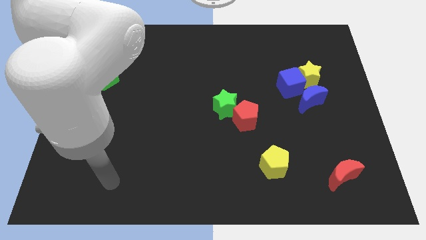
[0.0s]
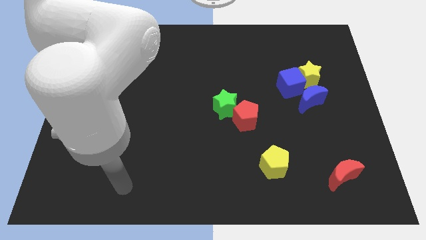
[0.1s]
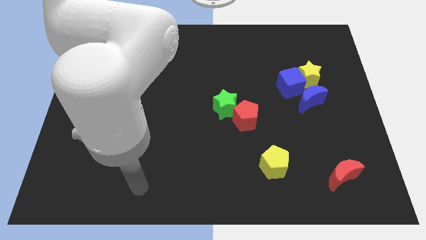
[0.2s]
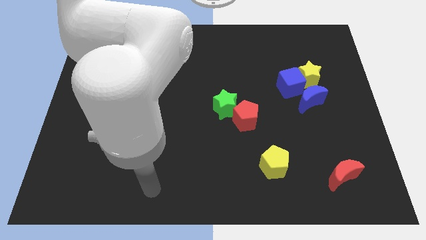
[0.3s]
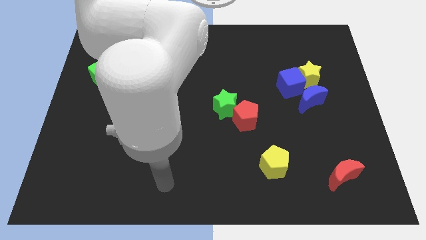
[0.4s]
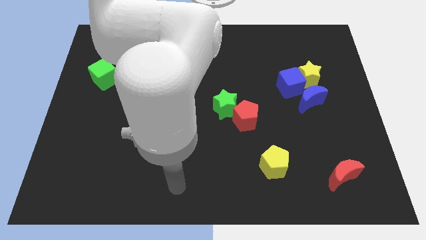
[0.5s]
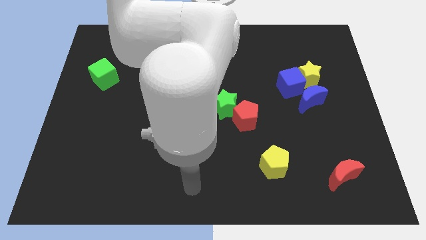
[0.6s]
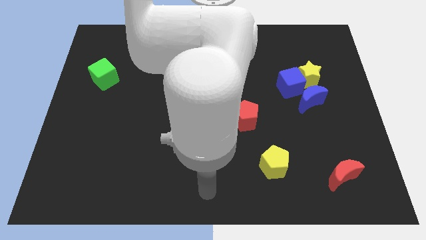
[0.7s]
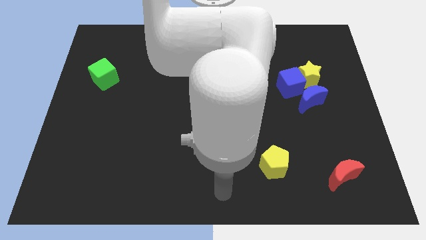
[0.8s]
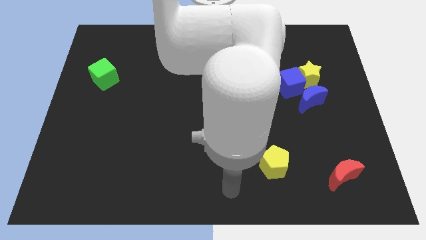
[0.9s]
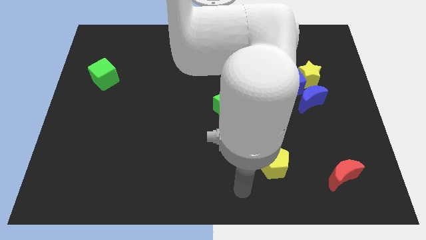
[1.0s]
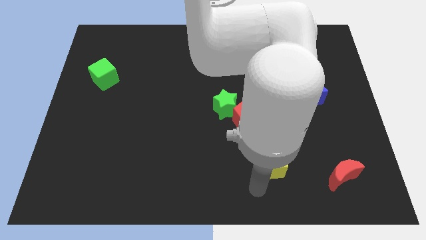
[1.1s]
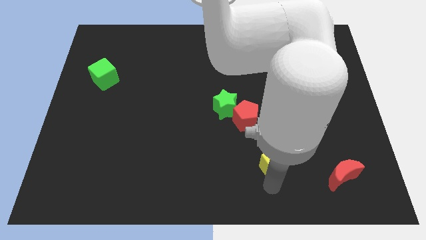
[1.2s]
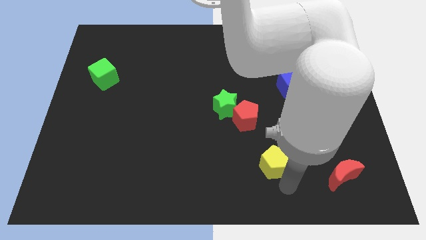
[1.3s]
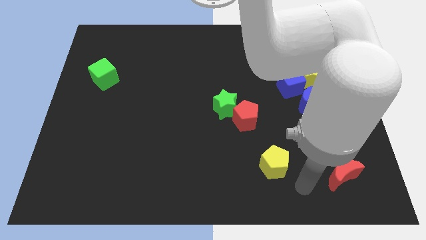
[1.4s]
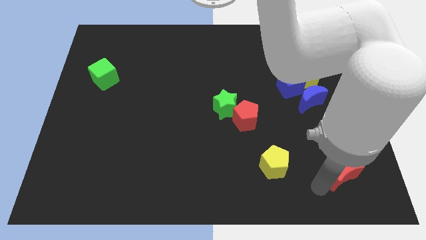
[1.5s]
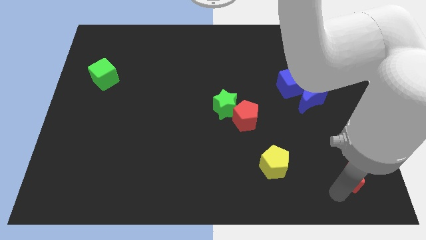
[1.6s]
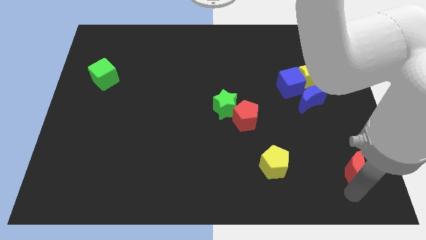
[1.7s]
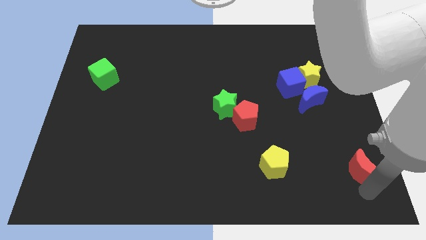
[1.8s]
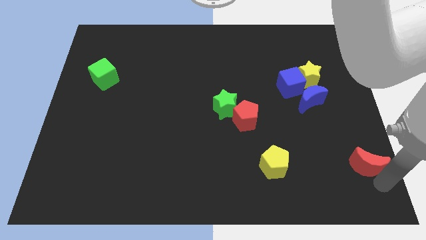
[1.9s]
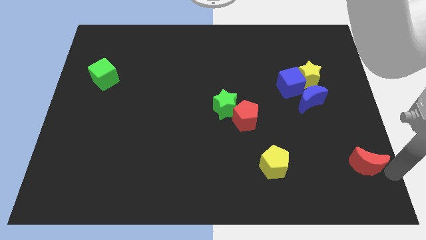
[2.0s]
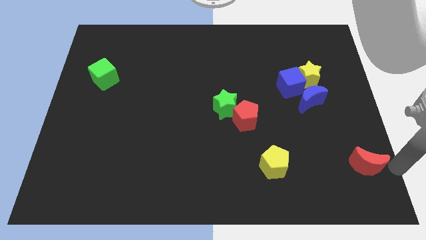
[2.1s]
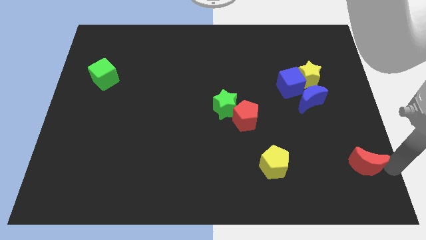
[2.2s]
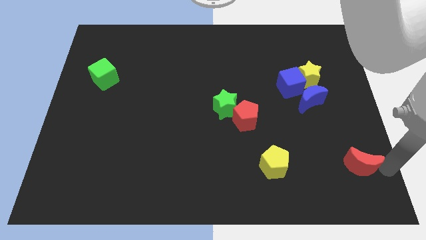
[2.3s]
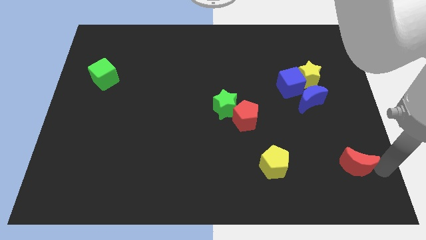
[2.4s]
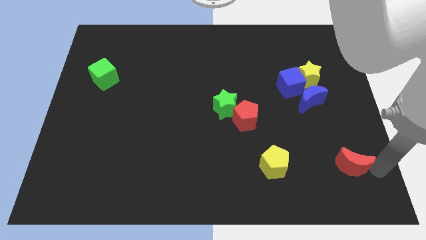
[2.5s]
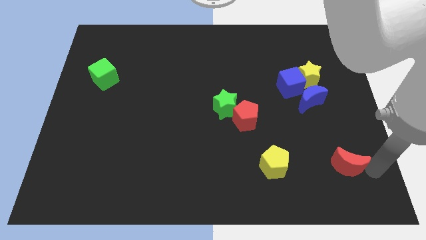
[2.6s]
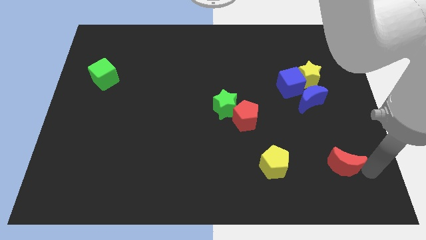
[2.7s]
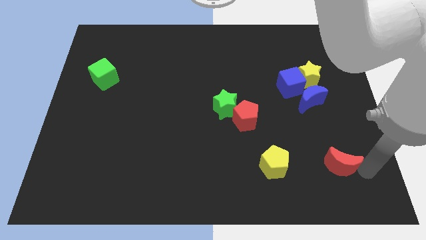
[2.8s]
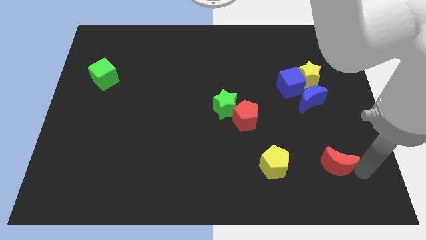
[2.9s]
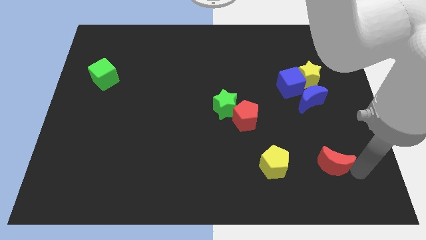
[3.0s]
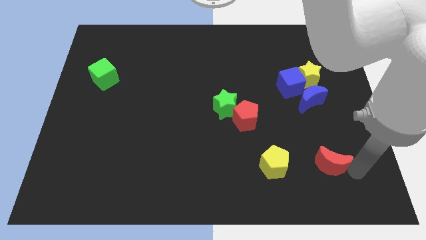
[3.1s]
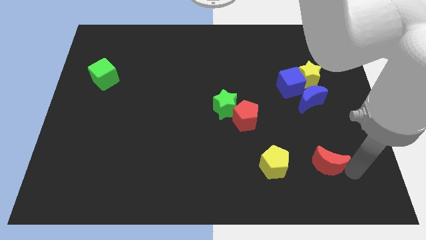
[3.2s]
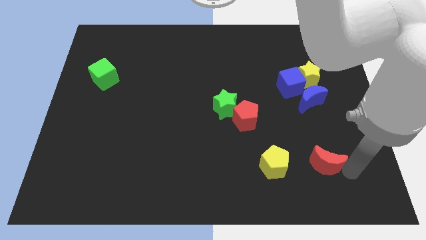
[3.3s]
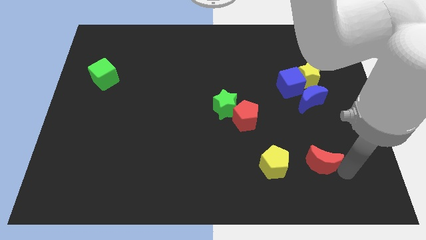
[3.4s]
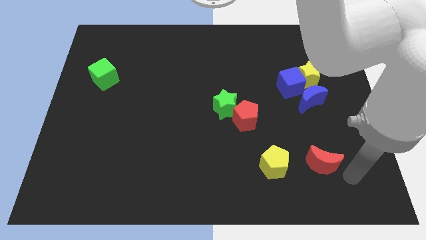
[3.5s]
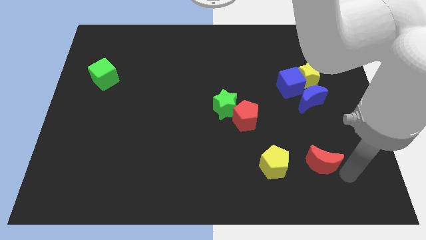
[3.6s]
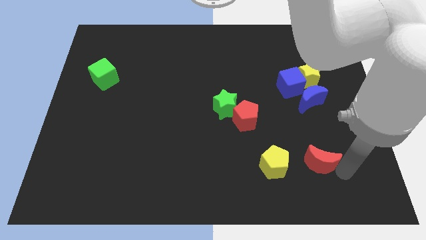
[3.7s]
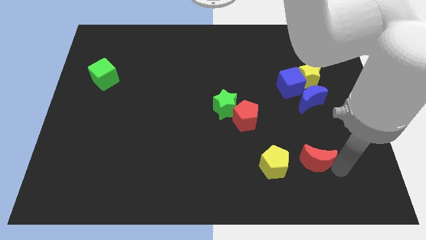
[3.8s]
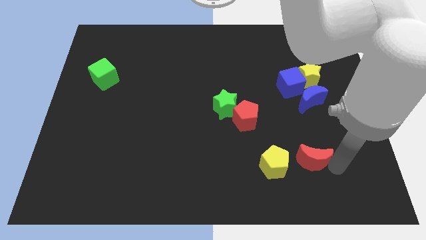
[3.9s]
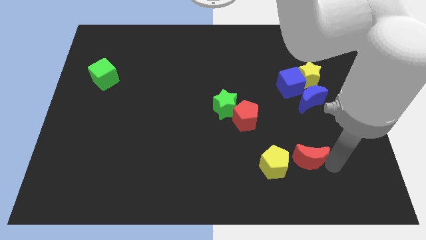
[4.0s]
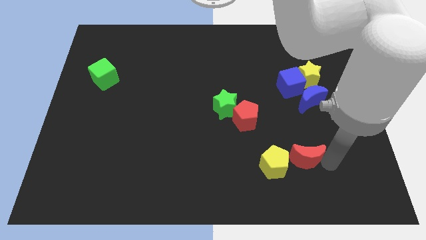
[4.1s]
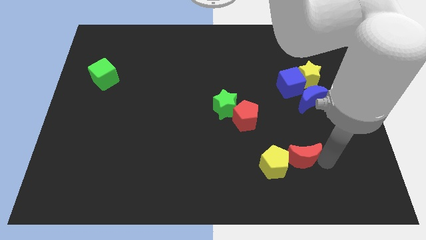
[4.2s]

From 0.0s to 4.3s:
push the red moon to the left a bit

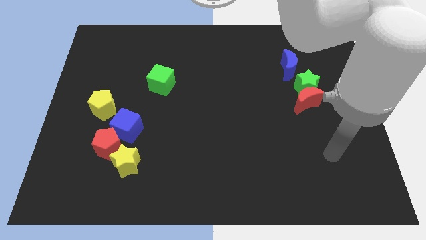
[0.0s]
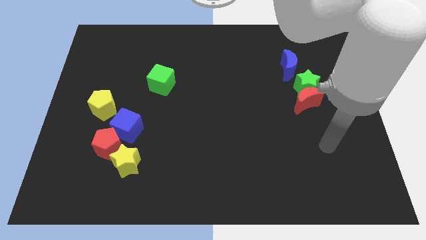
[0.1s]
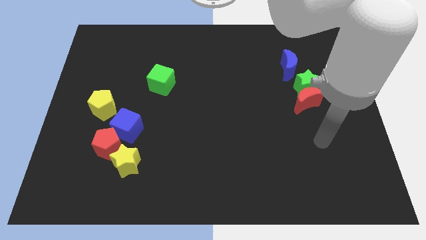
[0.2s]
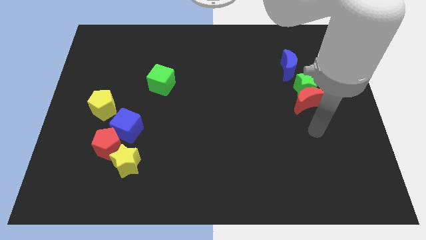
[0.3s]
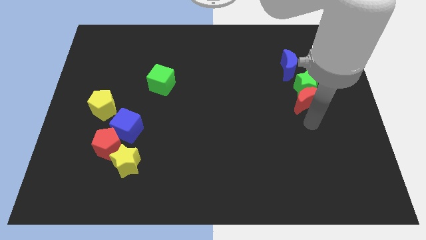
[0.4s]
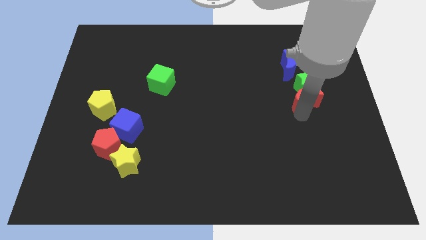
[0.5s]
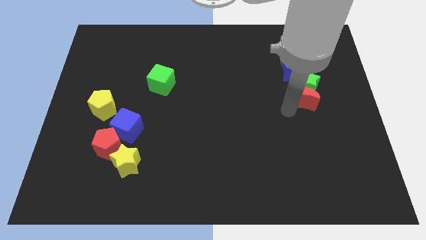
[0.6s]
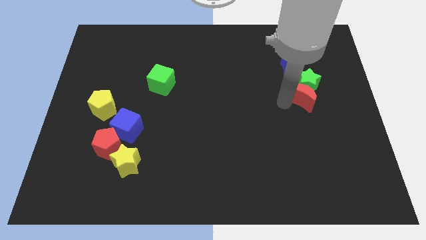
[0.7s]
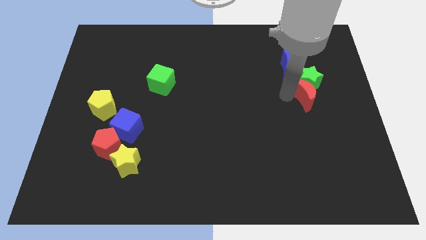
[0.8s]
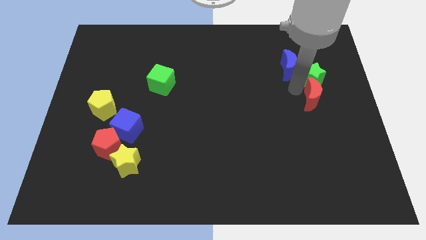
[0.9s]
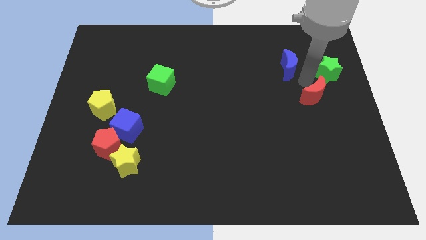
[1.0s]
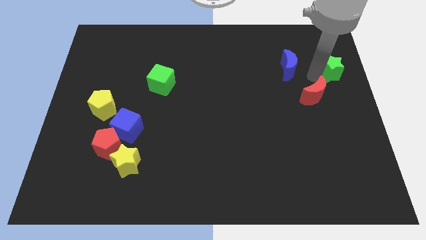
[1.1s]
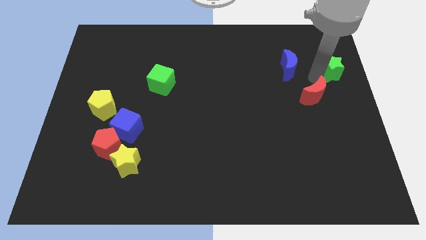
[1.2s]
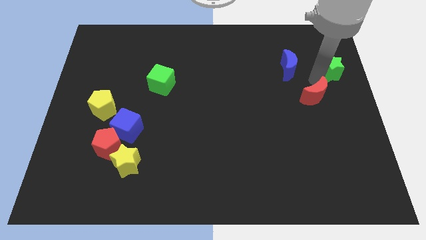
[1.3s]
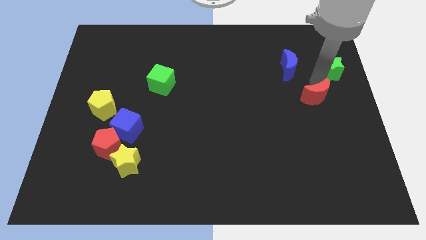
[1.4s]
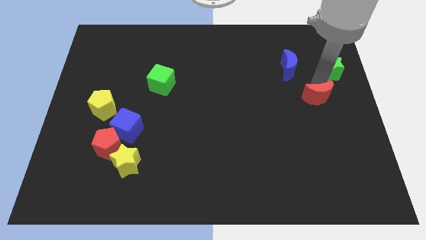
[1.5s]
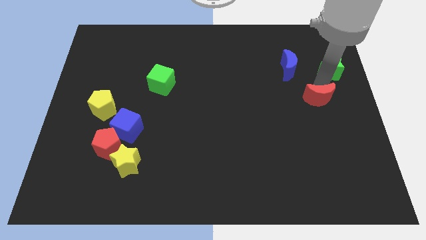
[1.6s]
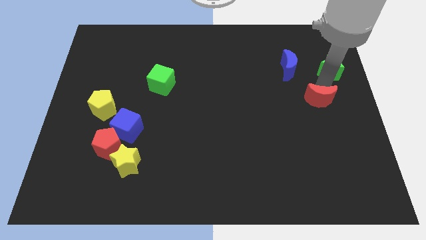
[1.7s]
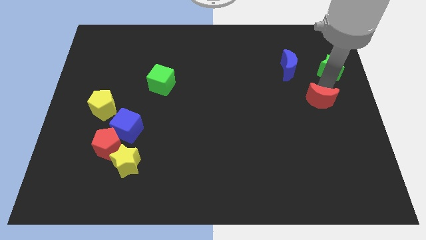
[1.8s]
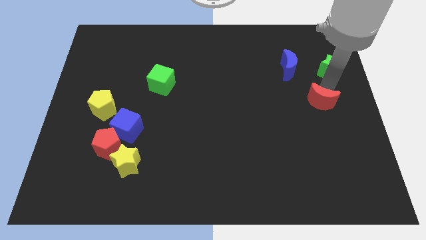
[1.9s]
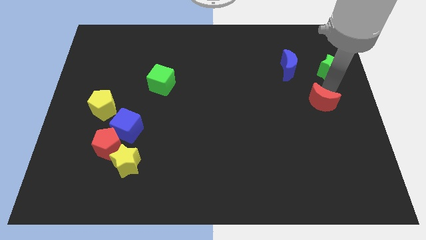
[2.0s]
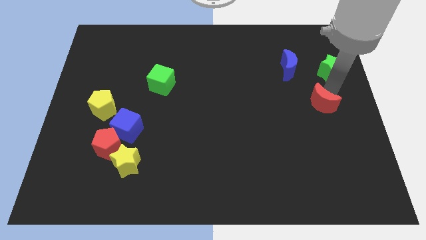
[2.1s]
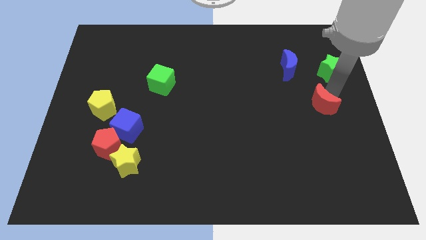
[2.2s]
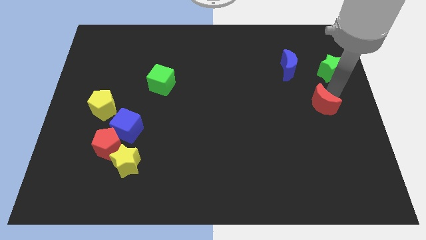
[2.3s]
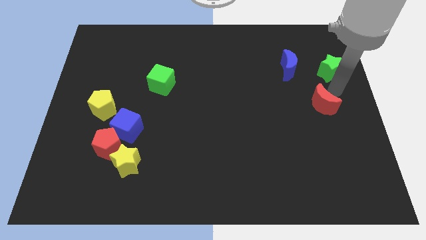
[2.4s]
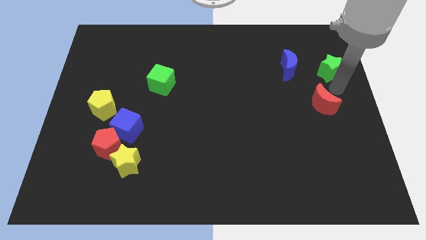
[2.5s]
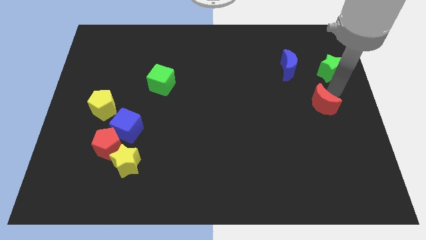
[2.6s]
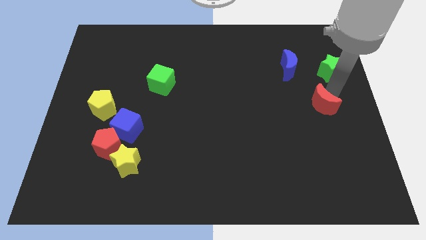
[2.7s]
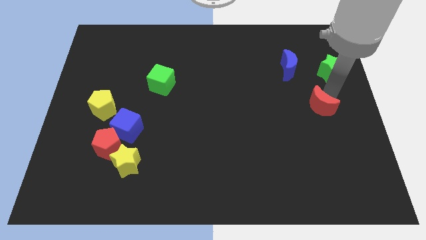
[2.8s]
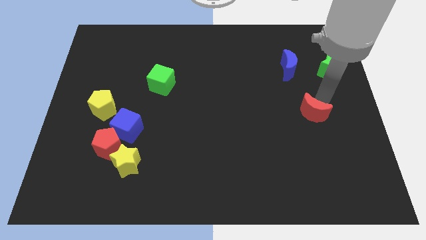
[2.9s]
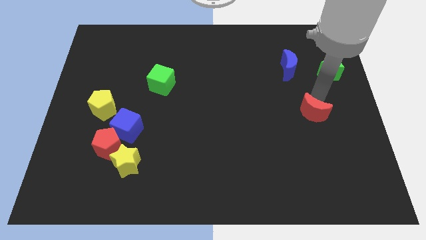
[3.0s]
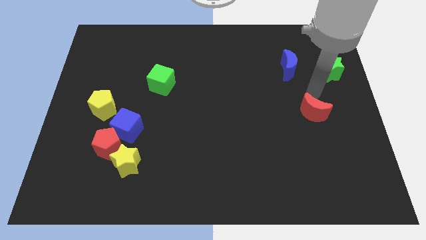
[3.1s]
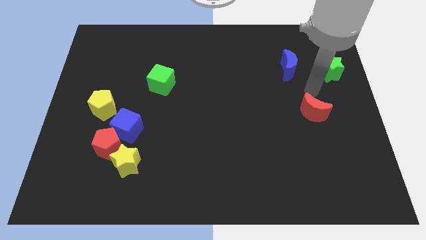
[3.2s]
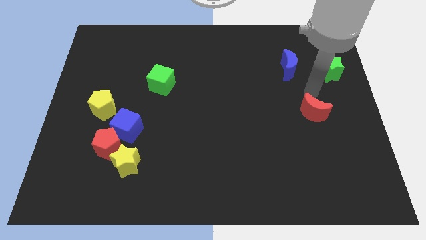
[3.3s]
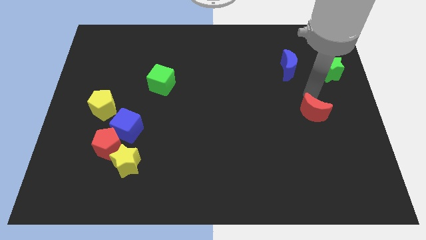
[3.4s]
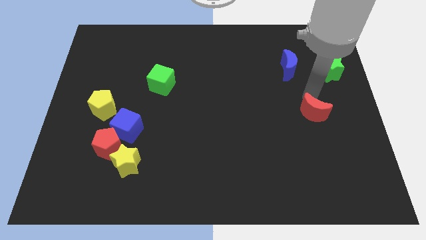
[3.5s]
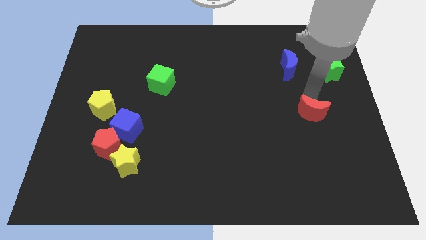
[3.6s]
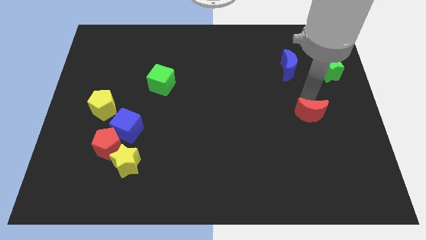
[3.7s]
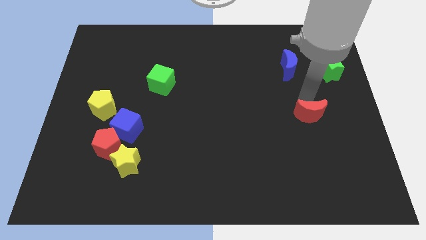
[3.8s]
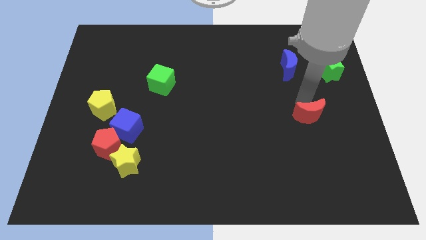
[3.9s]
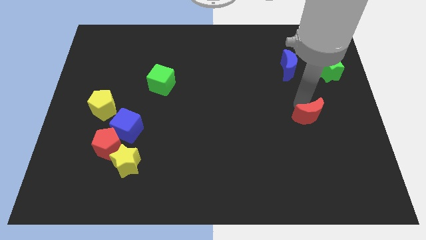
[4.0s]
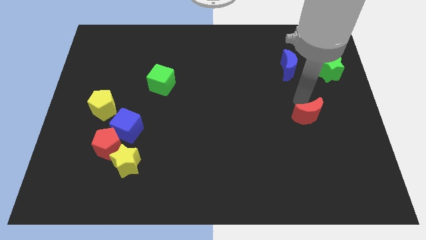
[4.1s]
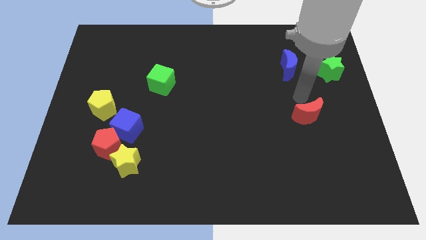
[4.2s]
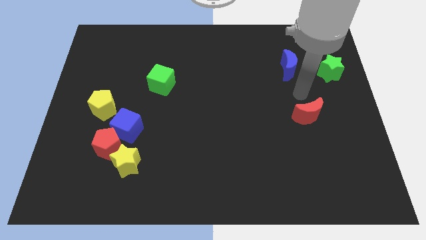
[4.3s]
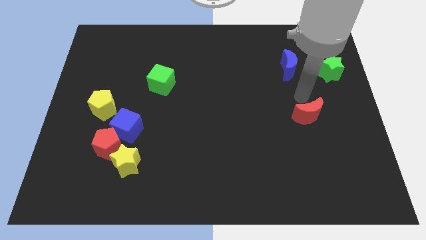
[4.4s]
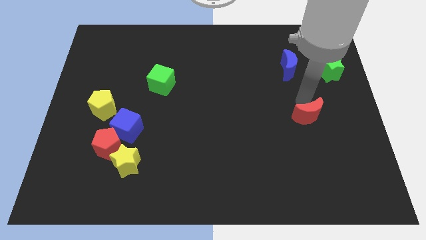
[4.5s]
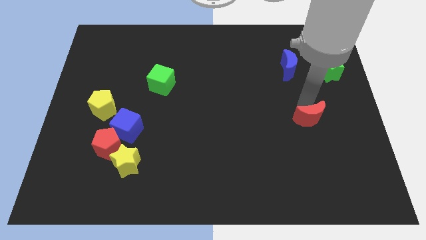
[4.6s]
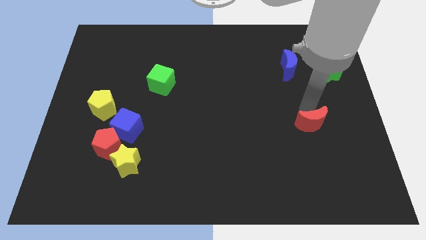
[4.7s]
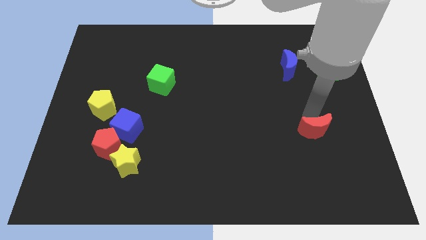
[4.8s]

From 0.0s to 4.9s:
push the red moon downwards a little bit
